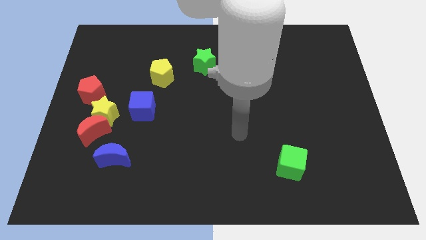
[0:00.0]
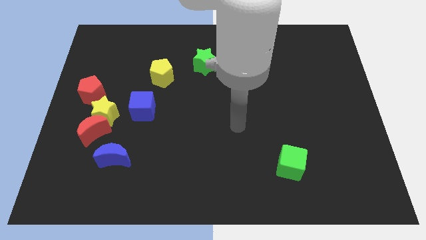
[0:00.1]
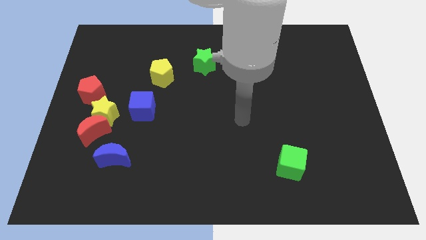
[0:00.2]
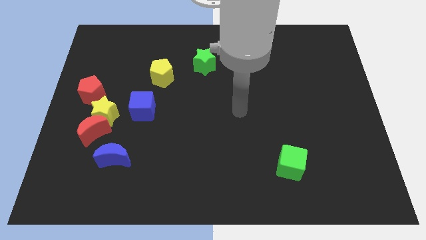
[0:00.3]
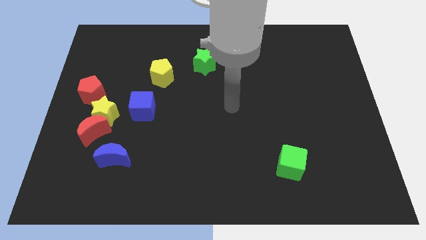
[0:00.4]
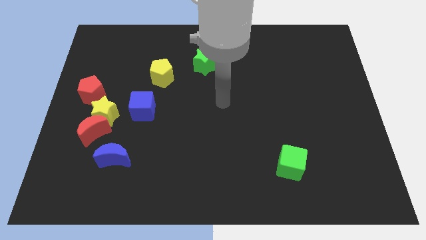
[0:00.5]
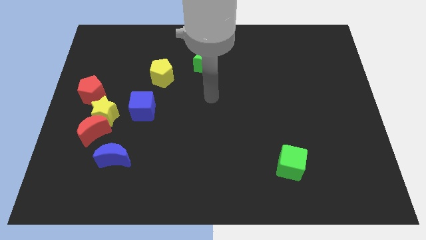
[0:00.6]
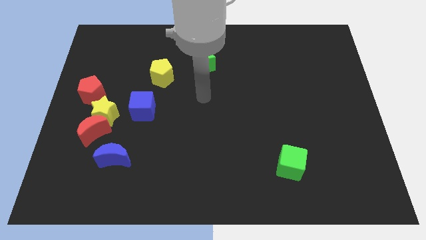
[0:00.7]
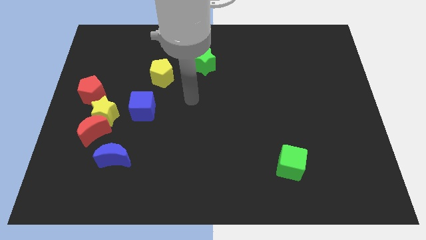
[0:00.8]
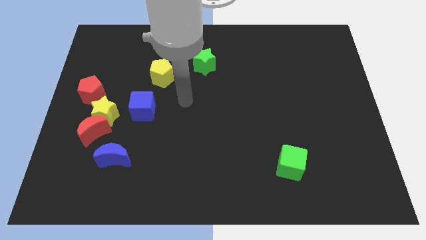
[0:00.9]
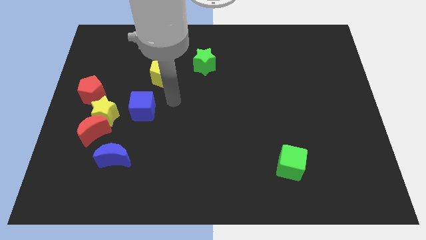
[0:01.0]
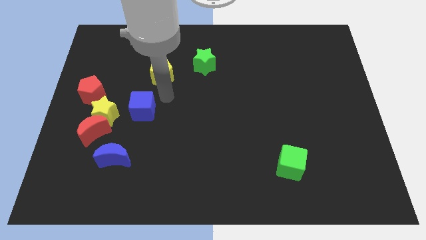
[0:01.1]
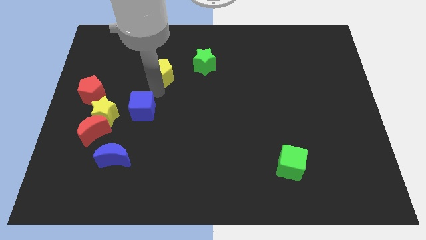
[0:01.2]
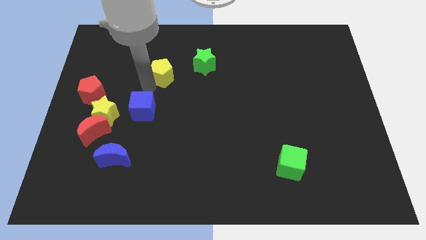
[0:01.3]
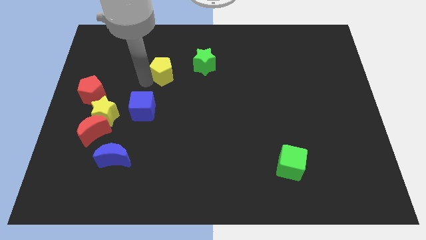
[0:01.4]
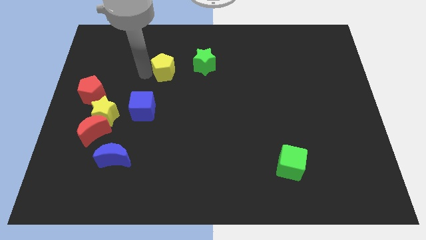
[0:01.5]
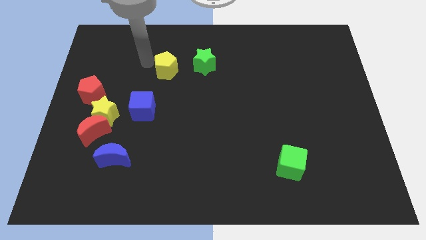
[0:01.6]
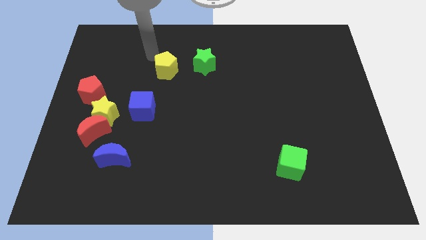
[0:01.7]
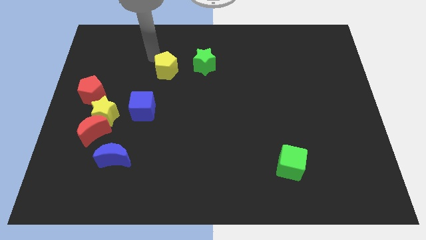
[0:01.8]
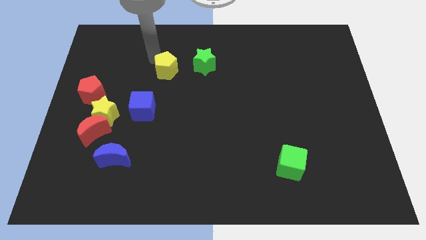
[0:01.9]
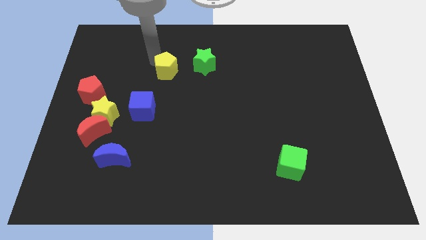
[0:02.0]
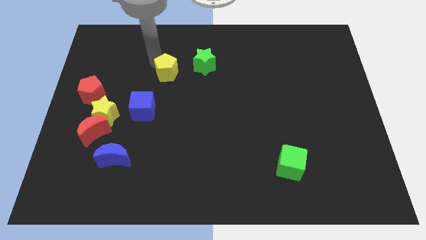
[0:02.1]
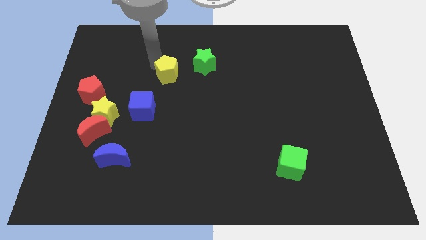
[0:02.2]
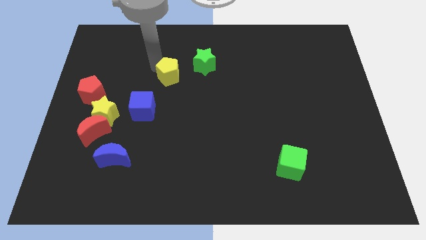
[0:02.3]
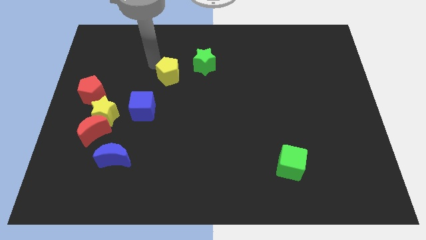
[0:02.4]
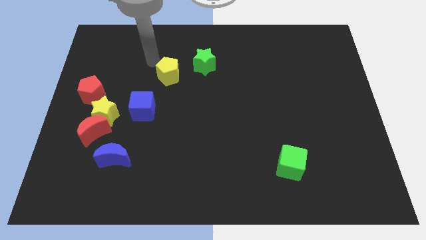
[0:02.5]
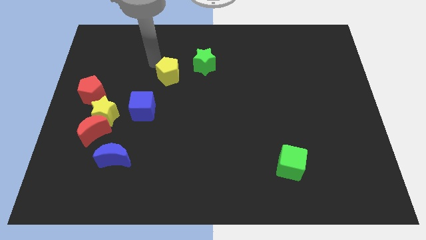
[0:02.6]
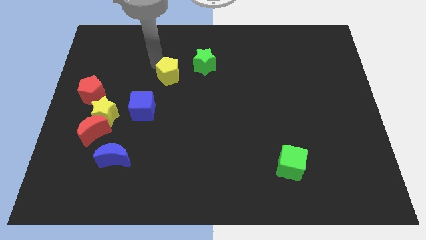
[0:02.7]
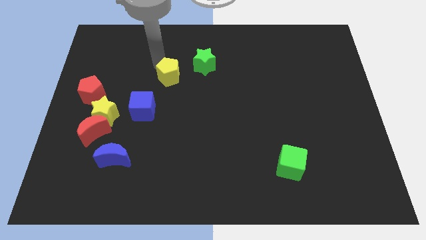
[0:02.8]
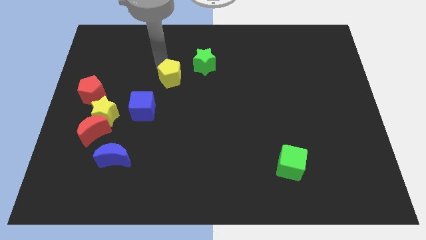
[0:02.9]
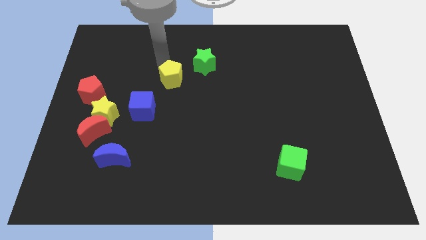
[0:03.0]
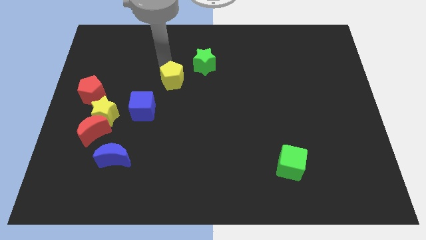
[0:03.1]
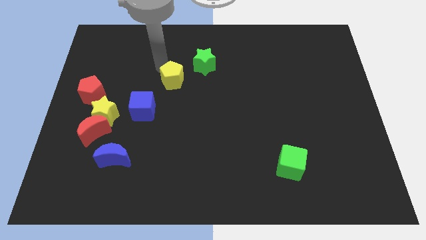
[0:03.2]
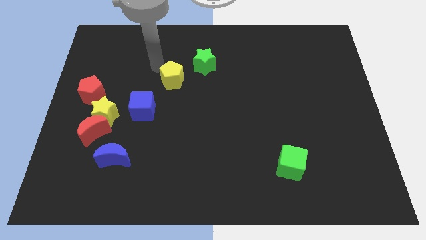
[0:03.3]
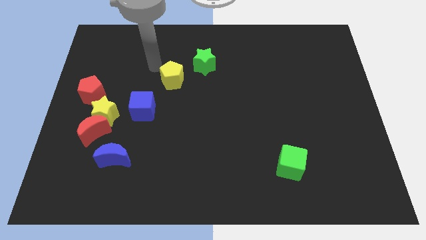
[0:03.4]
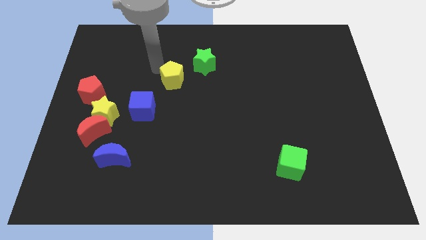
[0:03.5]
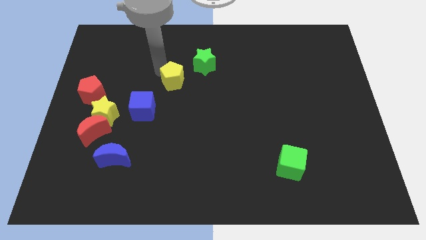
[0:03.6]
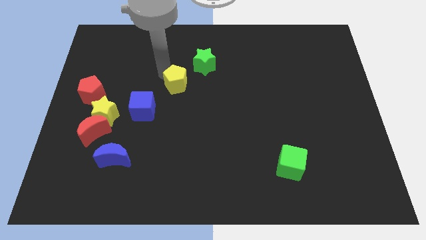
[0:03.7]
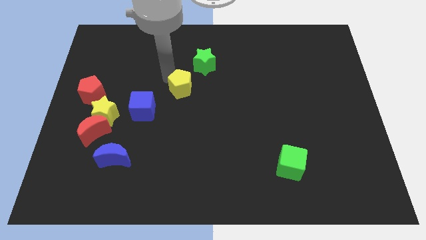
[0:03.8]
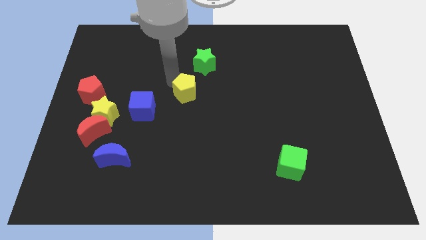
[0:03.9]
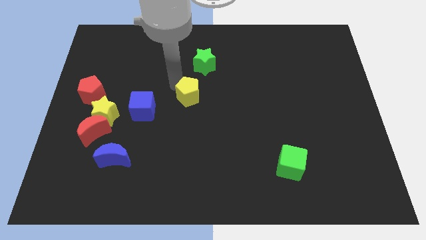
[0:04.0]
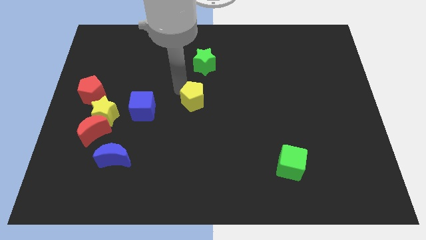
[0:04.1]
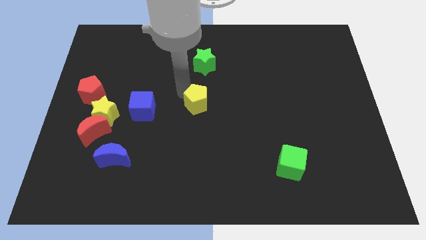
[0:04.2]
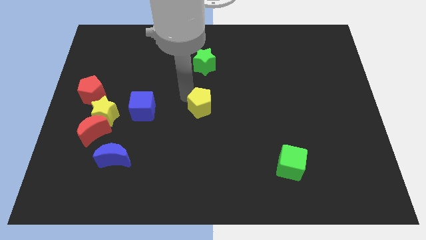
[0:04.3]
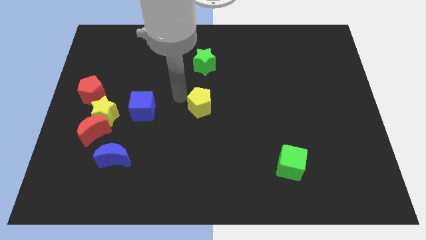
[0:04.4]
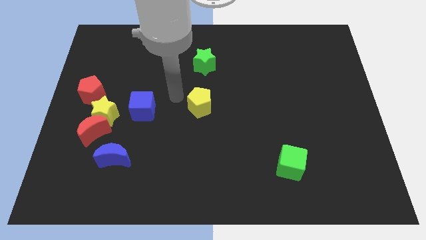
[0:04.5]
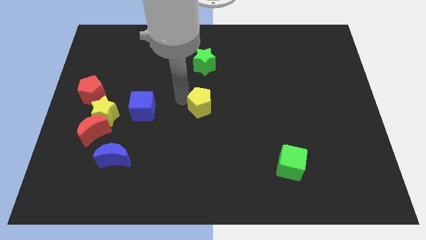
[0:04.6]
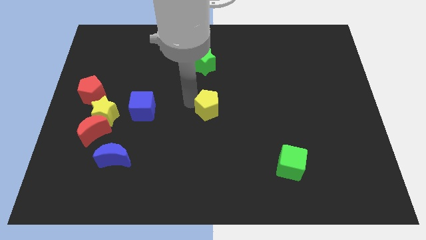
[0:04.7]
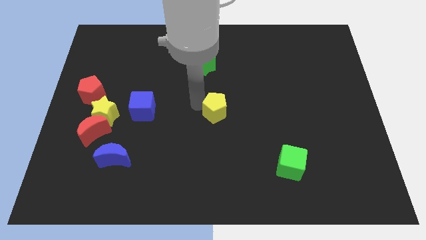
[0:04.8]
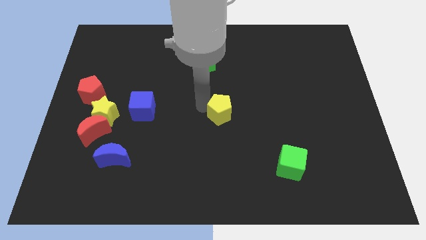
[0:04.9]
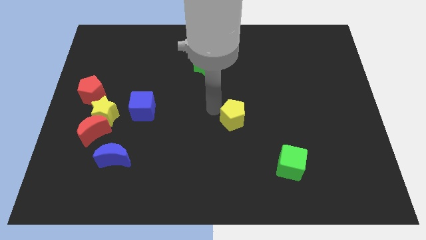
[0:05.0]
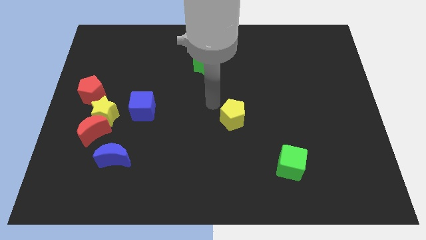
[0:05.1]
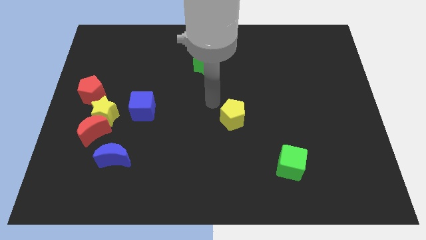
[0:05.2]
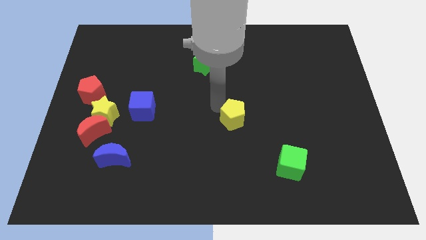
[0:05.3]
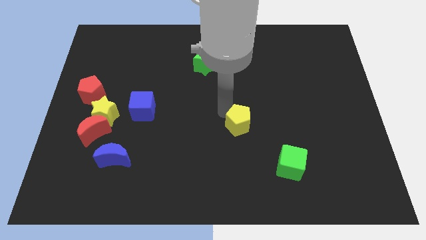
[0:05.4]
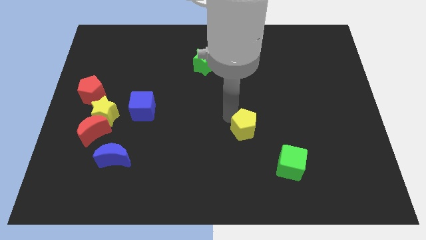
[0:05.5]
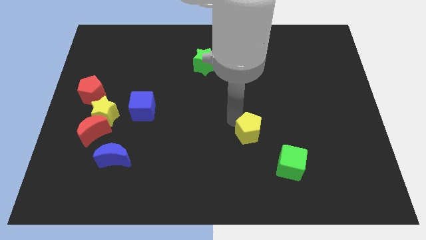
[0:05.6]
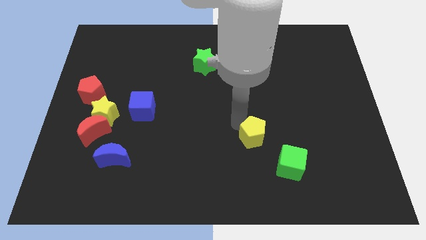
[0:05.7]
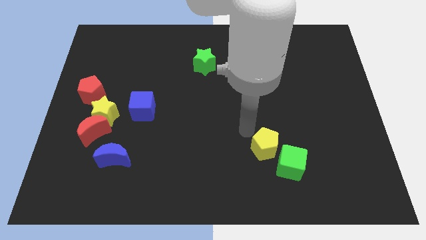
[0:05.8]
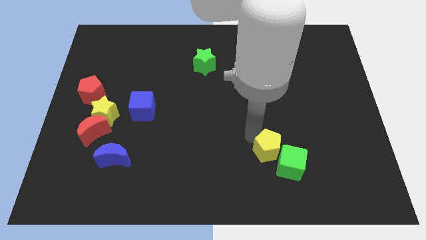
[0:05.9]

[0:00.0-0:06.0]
push the yellow pentagon towards the green cube

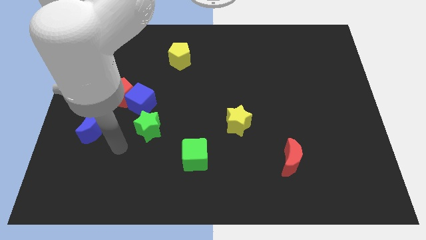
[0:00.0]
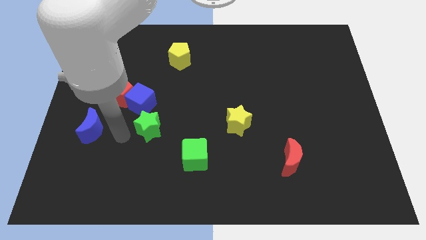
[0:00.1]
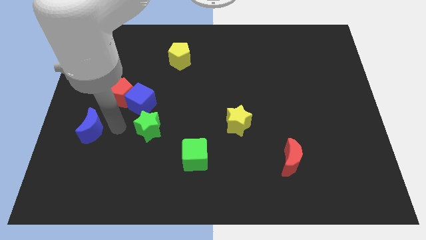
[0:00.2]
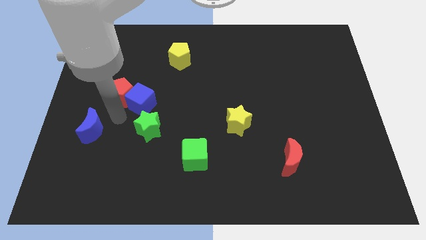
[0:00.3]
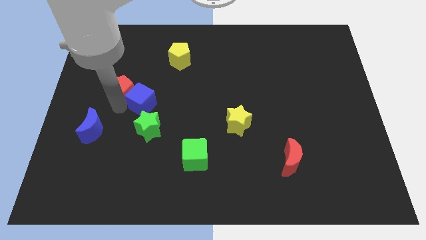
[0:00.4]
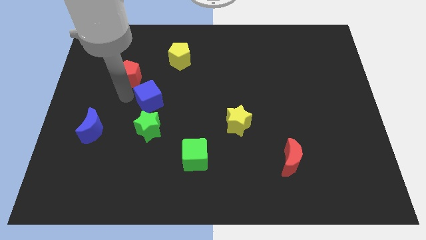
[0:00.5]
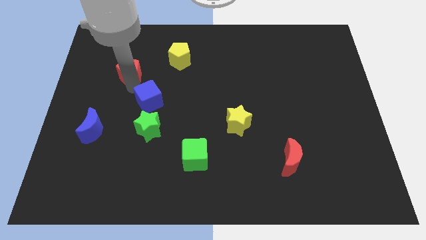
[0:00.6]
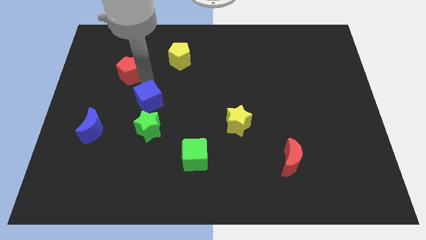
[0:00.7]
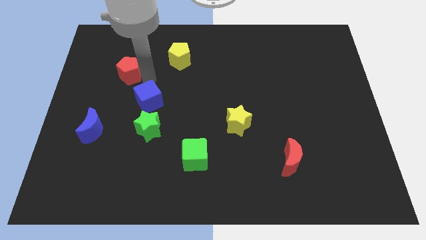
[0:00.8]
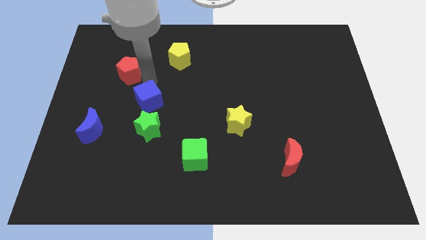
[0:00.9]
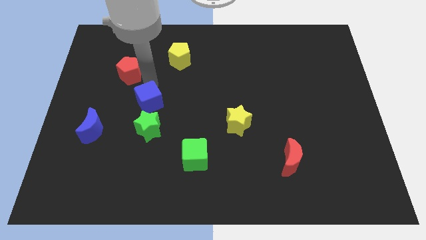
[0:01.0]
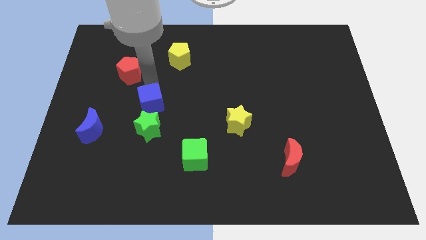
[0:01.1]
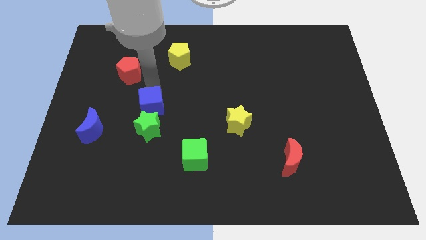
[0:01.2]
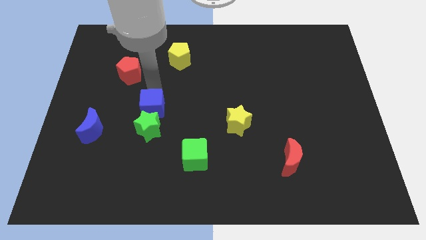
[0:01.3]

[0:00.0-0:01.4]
slide the blue cube towards the green star
